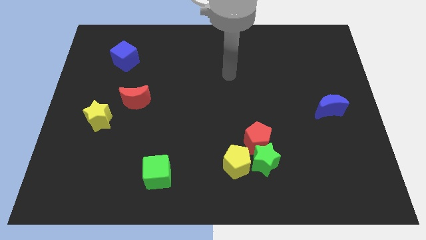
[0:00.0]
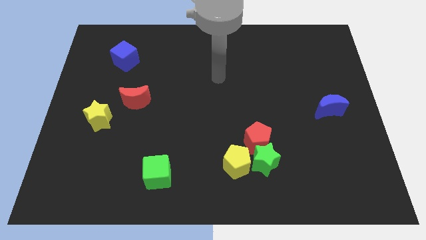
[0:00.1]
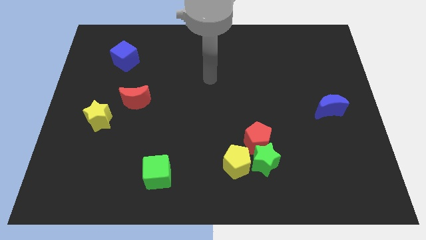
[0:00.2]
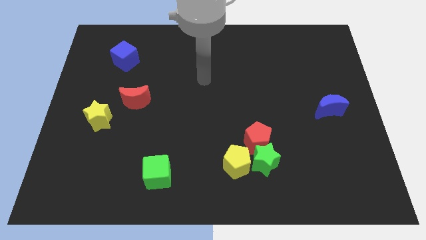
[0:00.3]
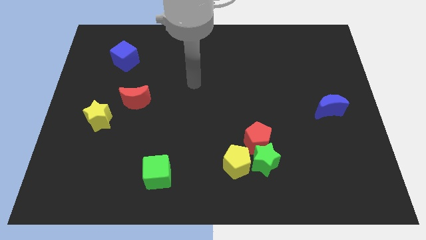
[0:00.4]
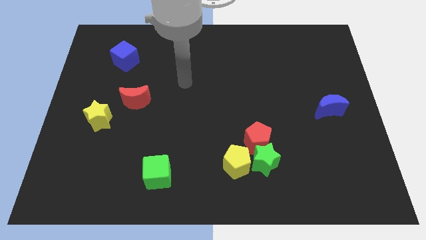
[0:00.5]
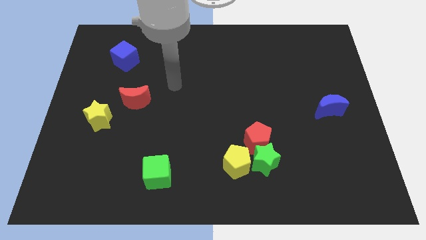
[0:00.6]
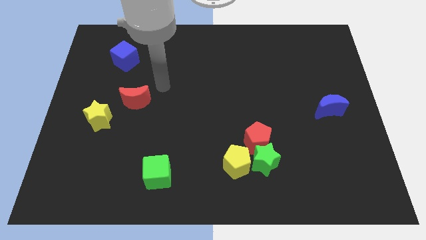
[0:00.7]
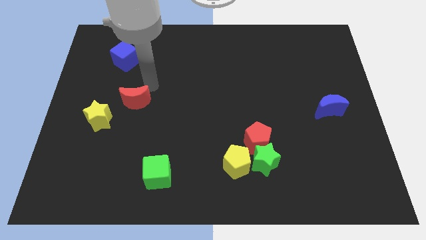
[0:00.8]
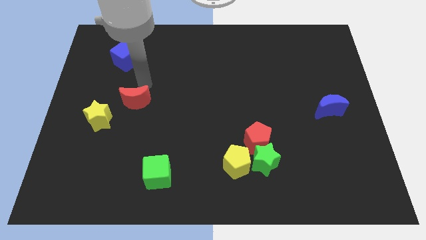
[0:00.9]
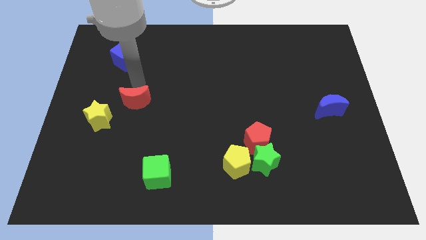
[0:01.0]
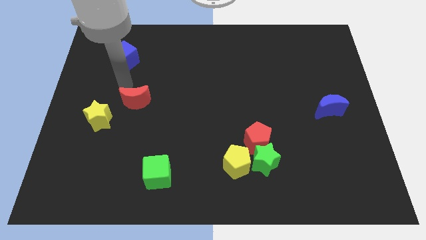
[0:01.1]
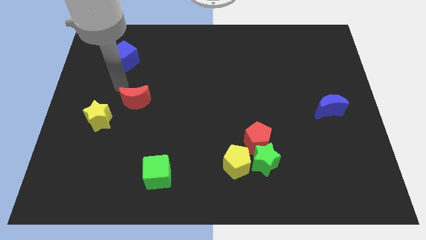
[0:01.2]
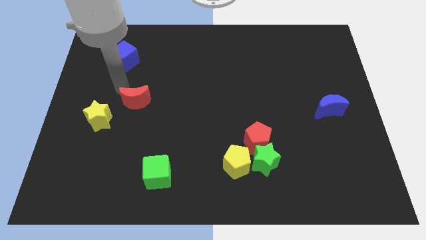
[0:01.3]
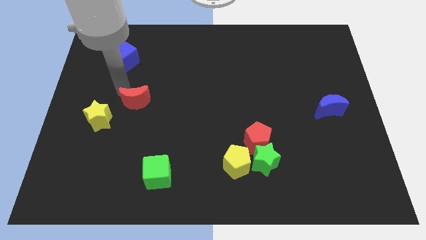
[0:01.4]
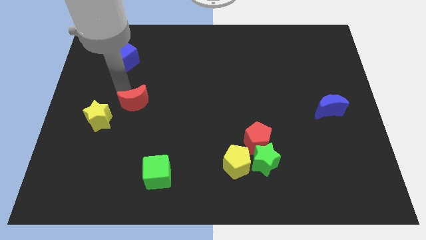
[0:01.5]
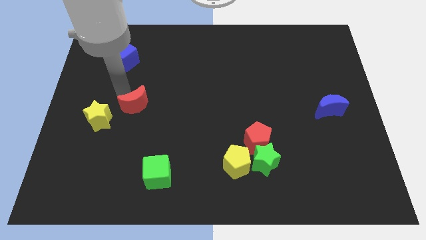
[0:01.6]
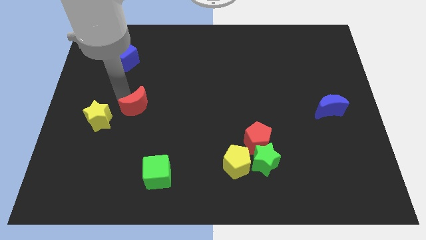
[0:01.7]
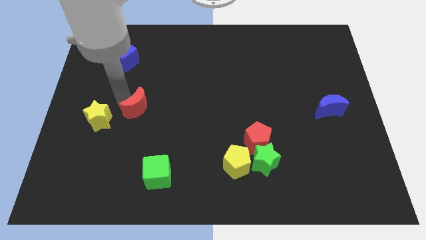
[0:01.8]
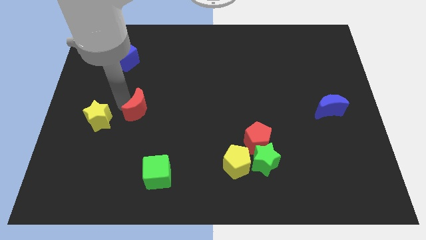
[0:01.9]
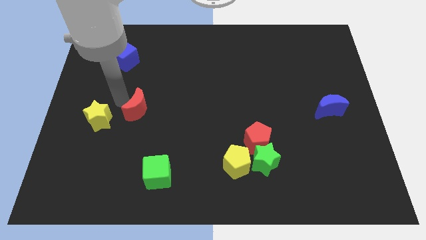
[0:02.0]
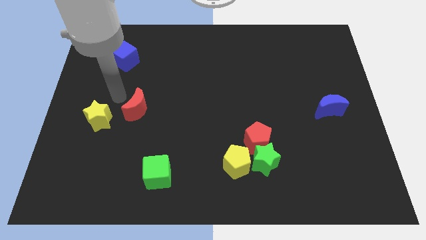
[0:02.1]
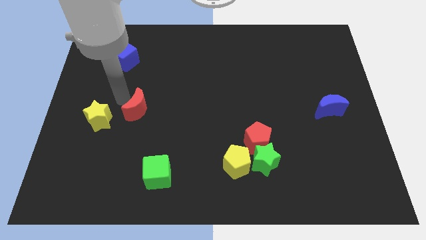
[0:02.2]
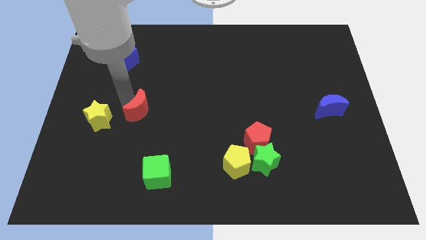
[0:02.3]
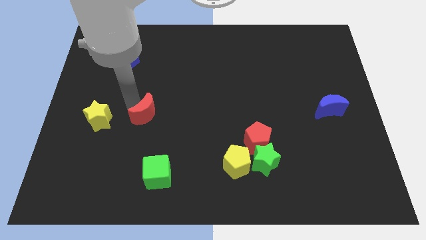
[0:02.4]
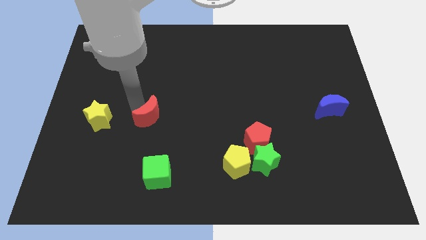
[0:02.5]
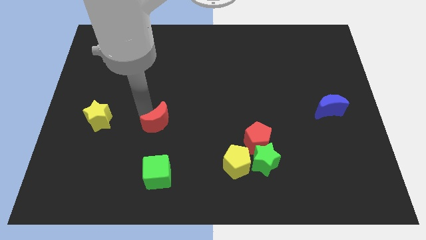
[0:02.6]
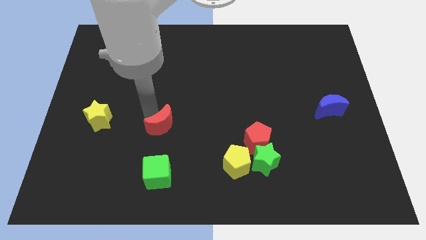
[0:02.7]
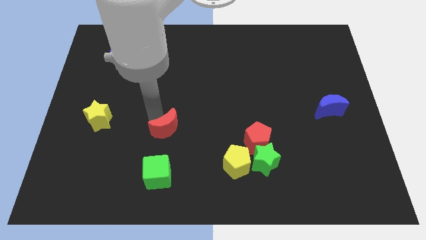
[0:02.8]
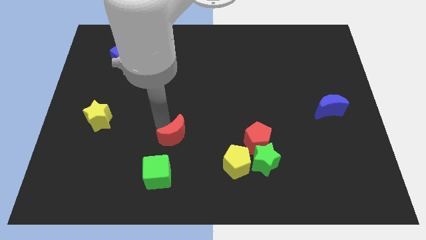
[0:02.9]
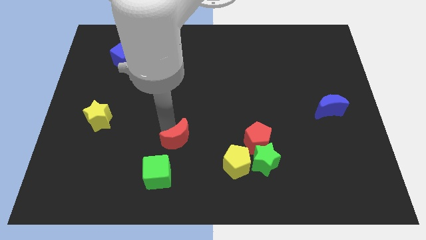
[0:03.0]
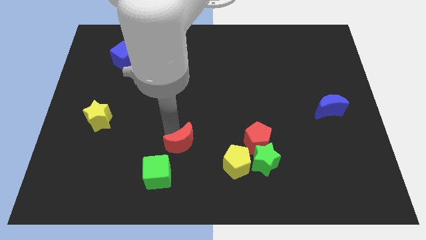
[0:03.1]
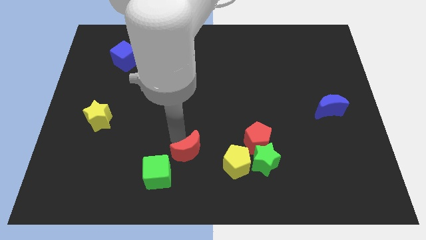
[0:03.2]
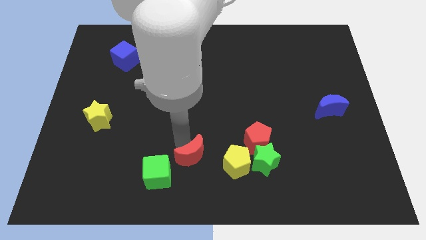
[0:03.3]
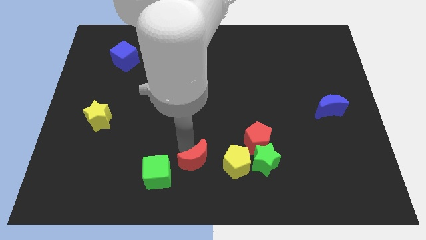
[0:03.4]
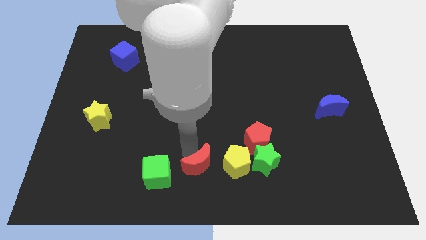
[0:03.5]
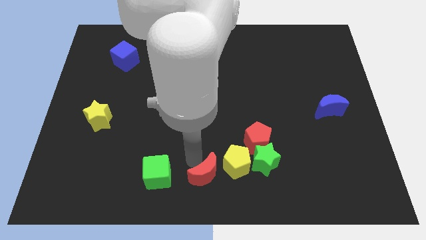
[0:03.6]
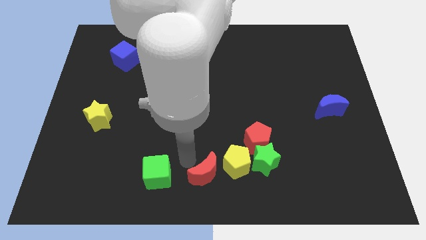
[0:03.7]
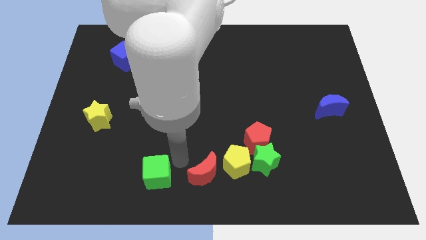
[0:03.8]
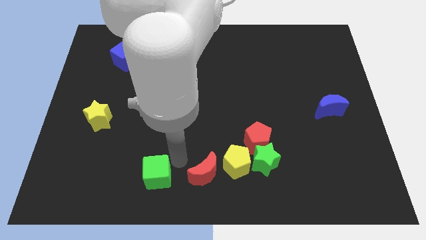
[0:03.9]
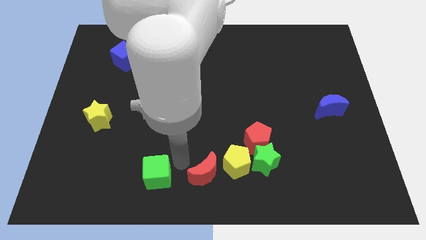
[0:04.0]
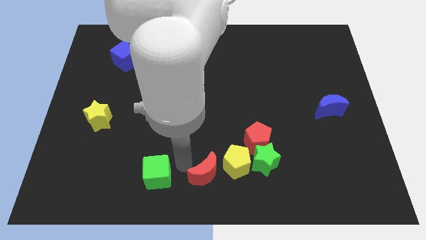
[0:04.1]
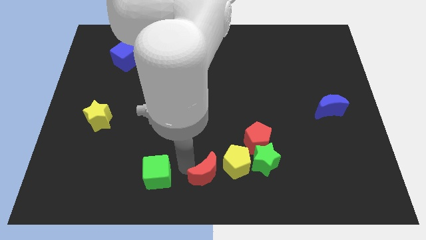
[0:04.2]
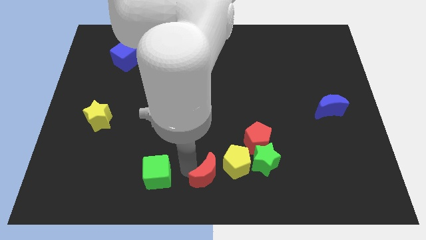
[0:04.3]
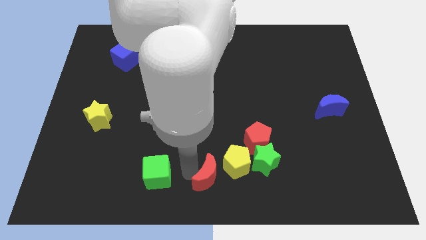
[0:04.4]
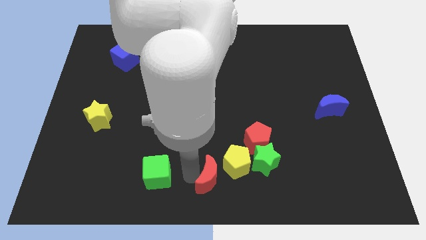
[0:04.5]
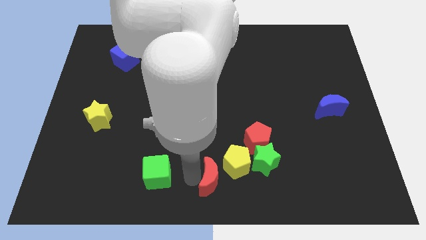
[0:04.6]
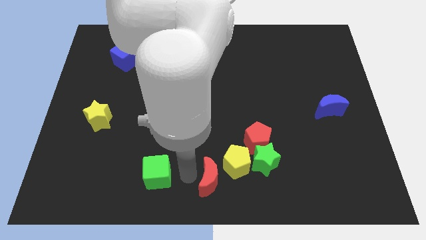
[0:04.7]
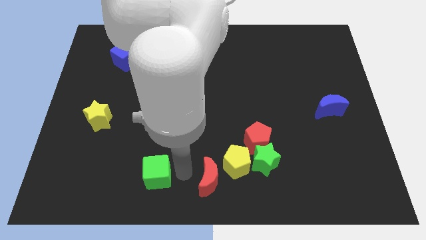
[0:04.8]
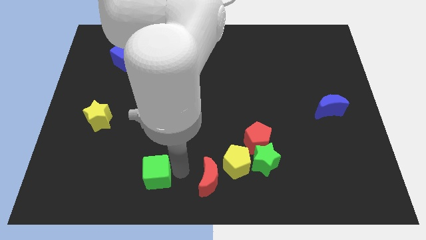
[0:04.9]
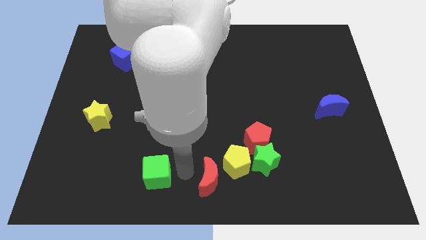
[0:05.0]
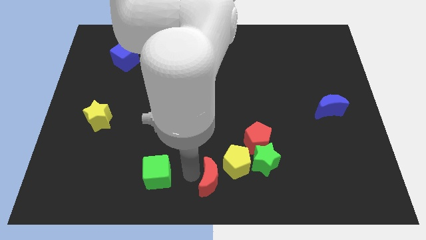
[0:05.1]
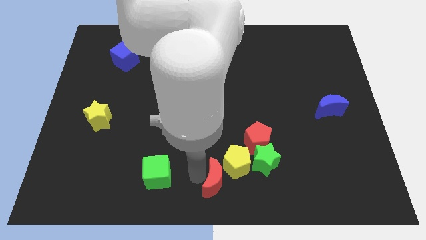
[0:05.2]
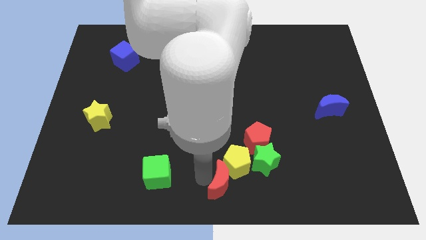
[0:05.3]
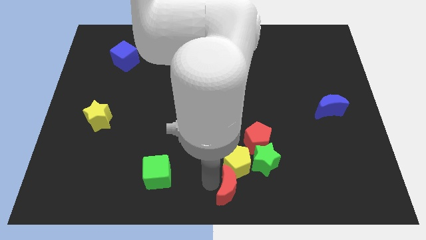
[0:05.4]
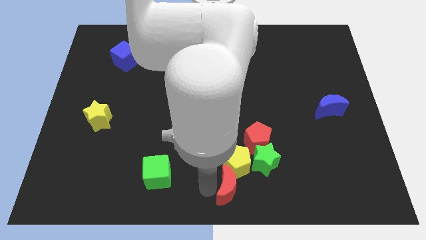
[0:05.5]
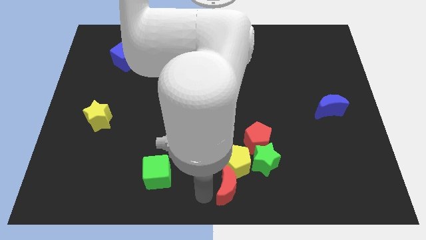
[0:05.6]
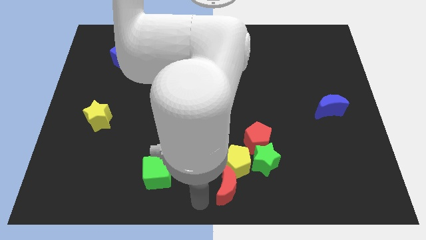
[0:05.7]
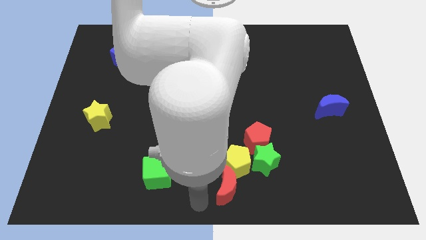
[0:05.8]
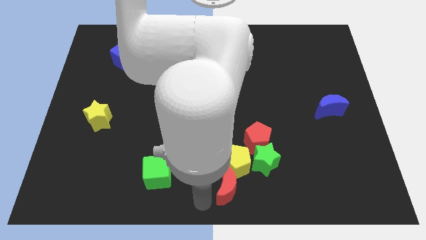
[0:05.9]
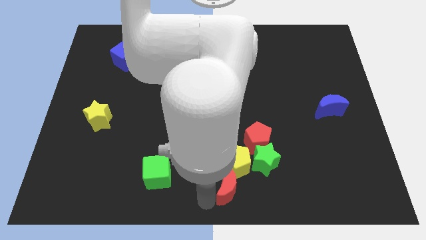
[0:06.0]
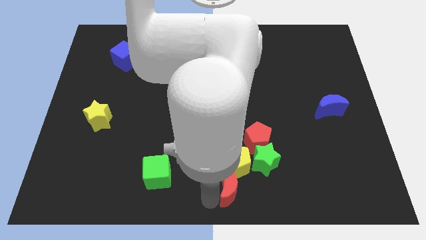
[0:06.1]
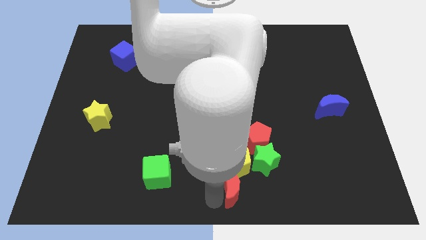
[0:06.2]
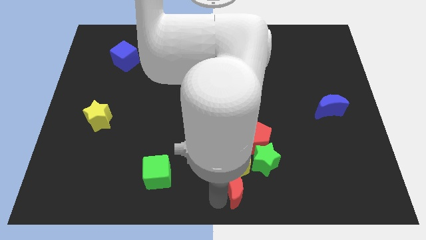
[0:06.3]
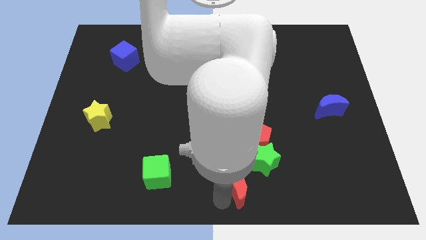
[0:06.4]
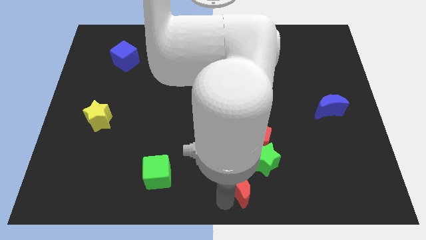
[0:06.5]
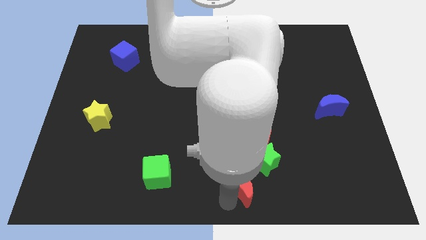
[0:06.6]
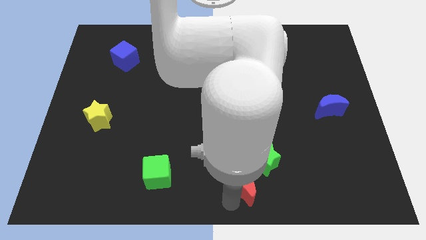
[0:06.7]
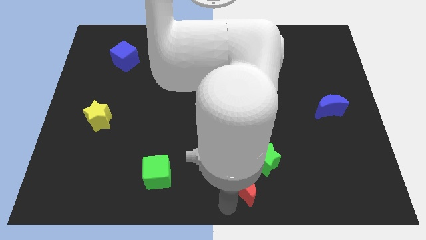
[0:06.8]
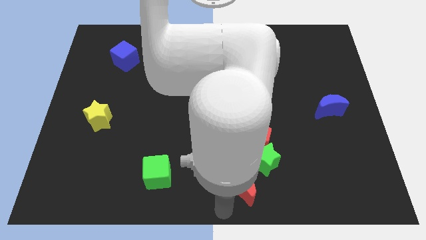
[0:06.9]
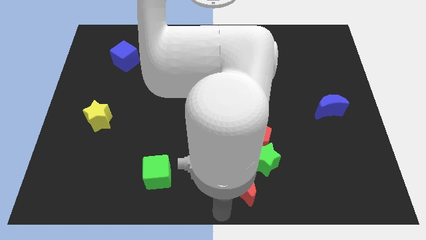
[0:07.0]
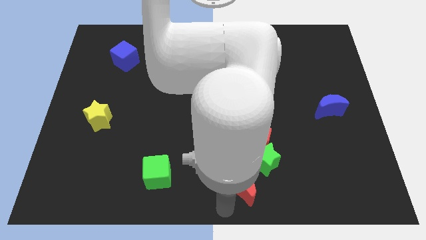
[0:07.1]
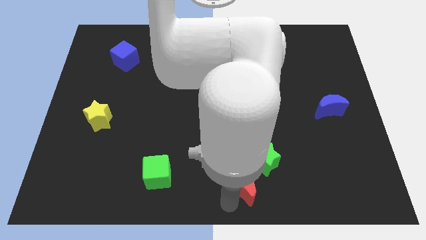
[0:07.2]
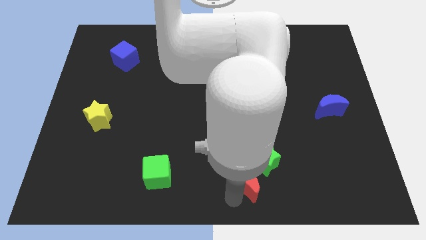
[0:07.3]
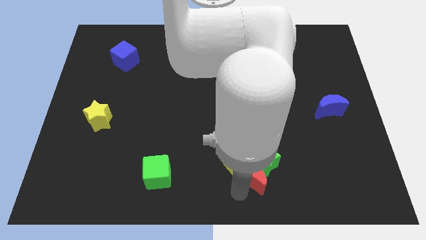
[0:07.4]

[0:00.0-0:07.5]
put the red moon to the green star

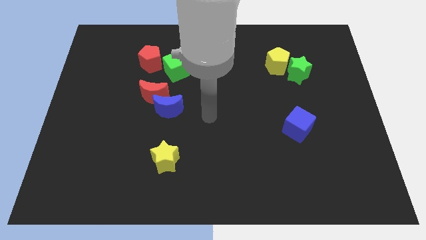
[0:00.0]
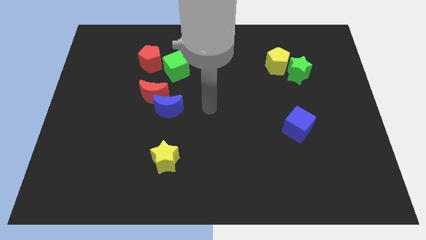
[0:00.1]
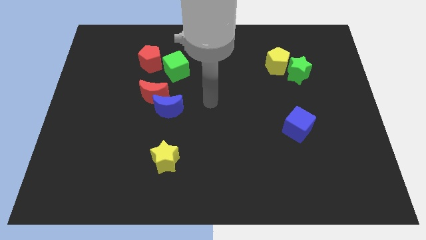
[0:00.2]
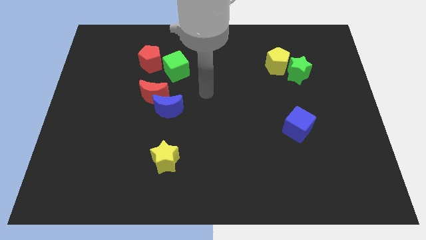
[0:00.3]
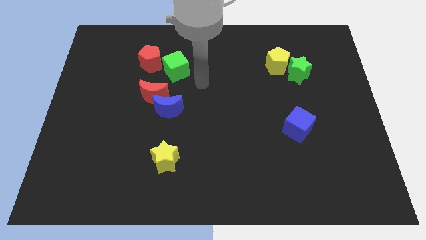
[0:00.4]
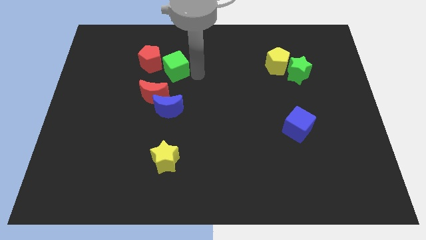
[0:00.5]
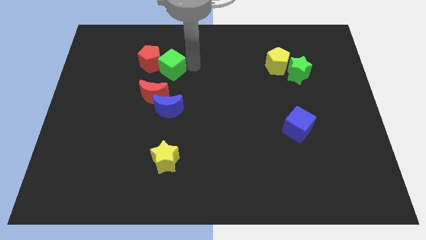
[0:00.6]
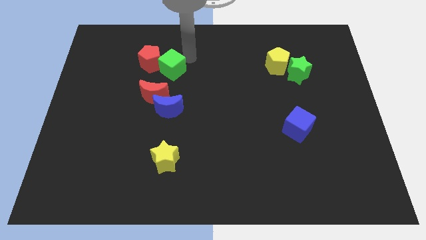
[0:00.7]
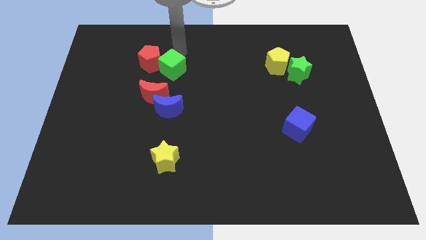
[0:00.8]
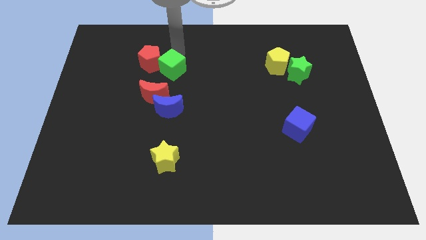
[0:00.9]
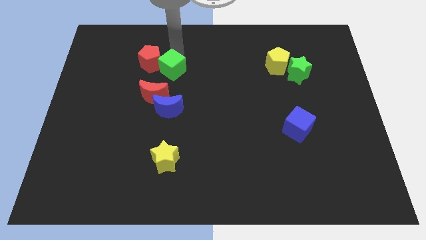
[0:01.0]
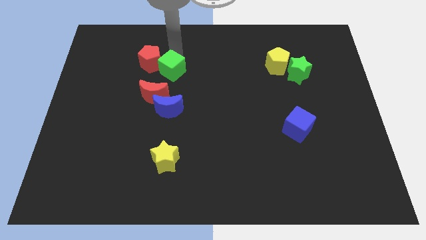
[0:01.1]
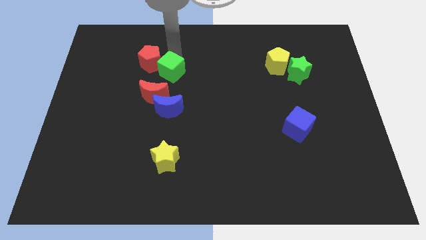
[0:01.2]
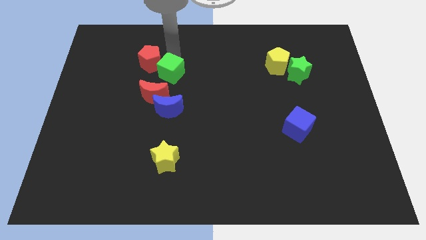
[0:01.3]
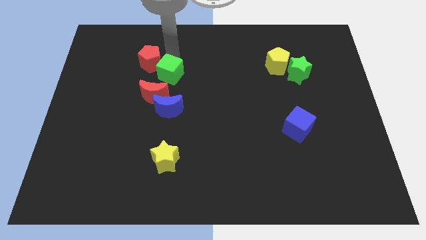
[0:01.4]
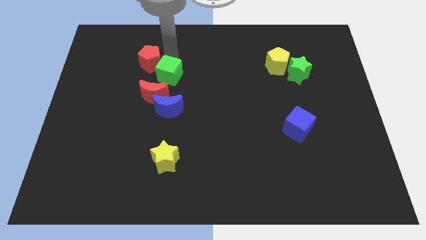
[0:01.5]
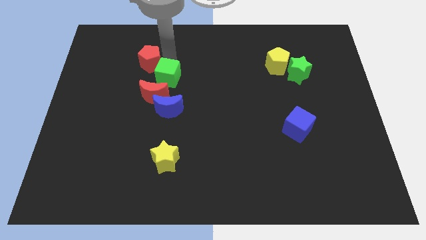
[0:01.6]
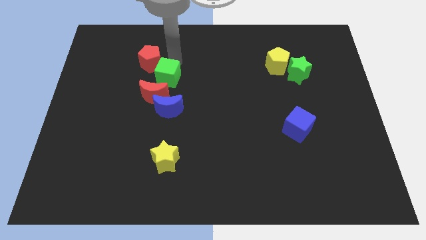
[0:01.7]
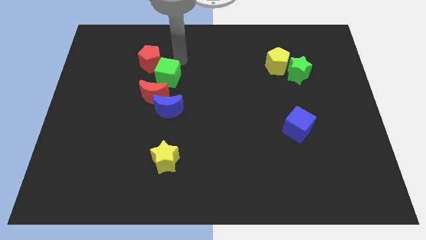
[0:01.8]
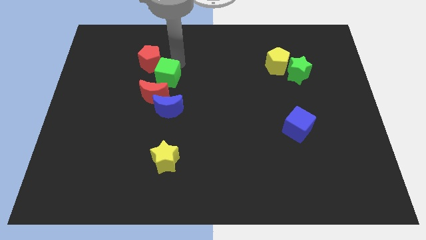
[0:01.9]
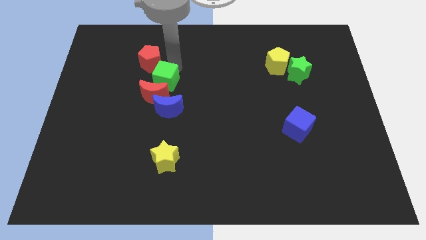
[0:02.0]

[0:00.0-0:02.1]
push the green cube to the red moon
